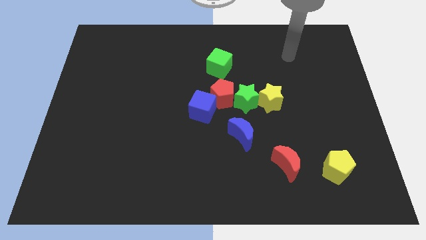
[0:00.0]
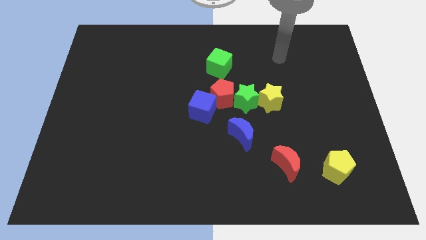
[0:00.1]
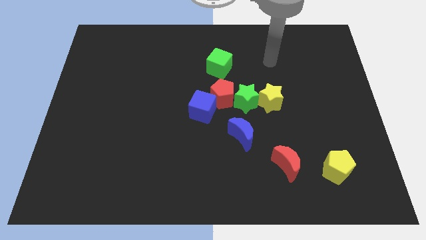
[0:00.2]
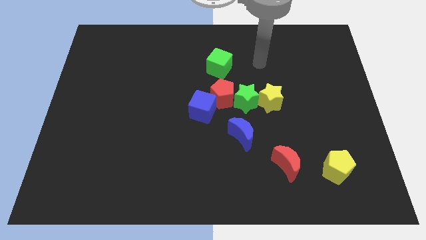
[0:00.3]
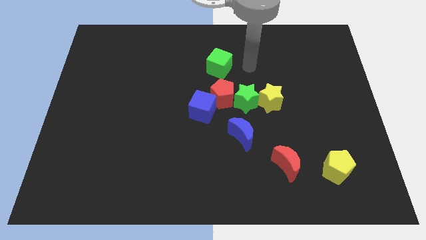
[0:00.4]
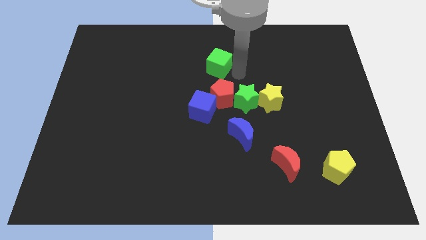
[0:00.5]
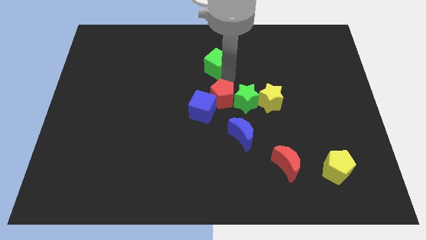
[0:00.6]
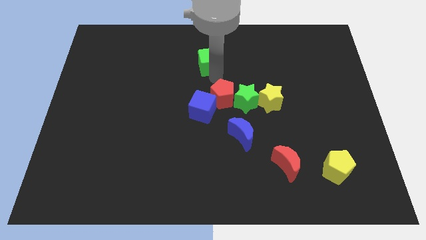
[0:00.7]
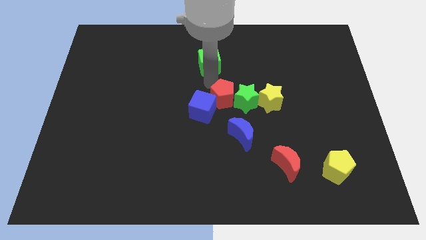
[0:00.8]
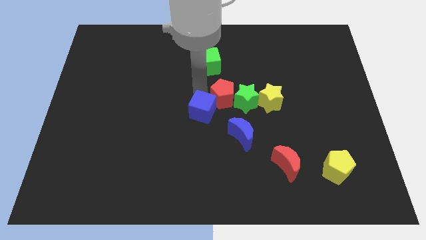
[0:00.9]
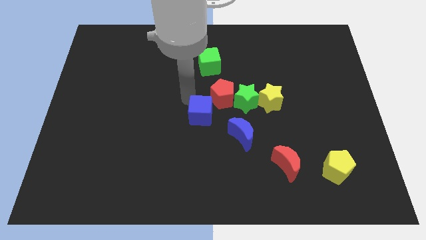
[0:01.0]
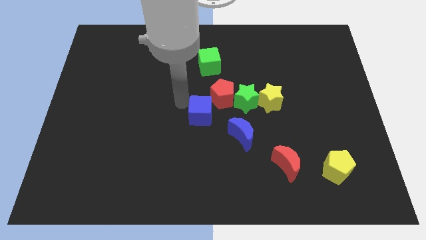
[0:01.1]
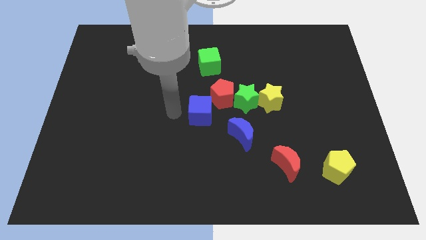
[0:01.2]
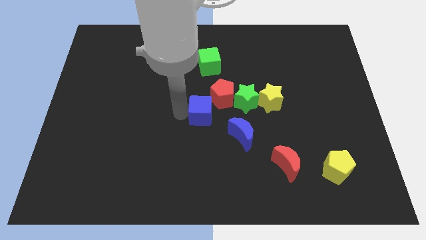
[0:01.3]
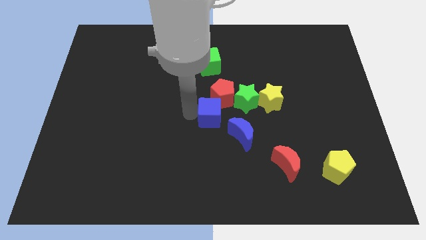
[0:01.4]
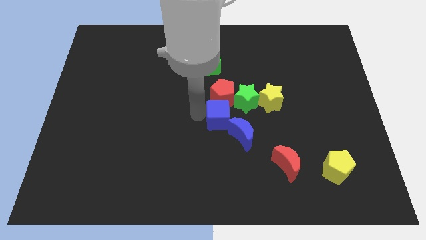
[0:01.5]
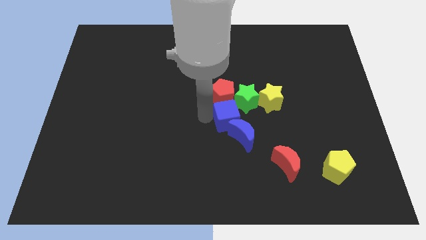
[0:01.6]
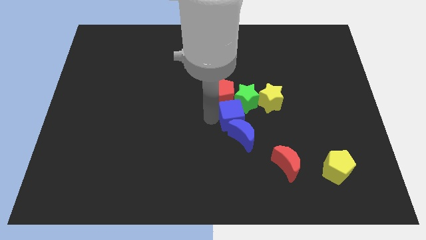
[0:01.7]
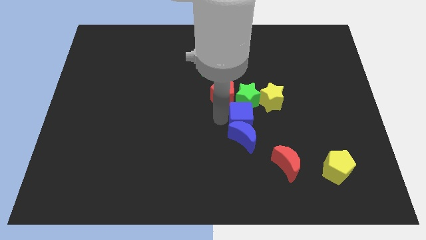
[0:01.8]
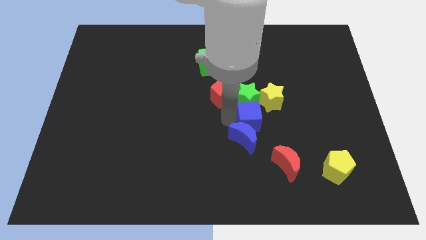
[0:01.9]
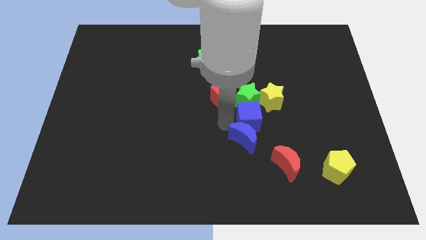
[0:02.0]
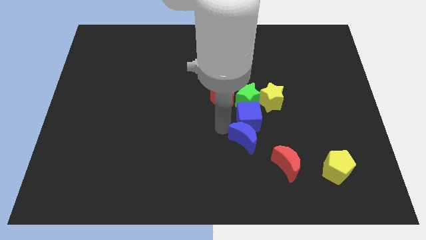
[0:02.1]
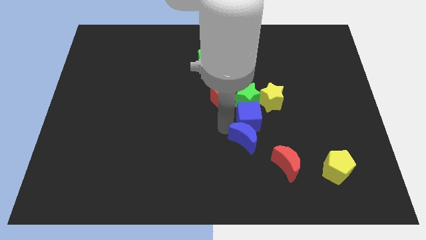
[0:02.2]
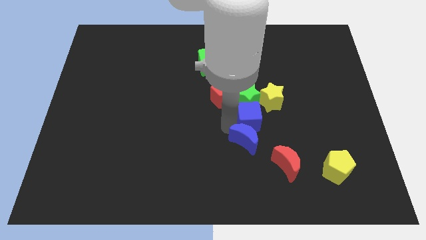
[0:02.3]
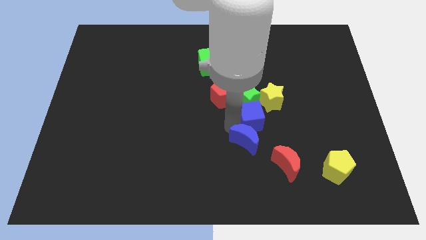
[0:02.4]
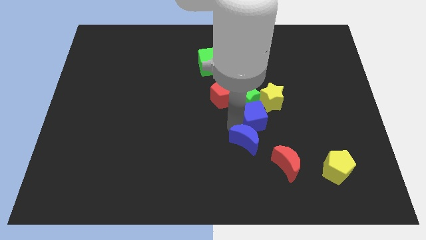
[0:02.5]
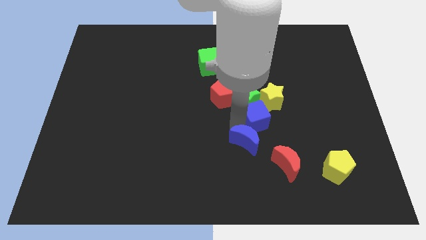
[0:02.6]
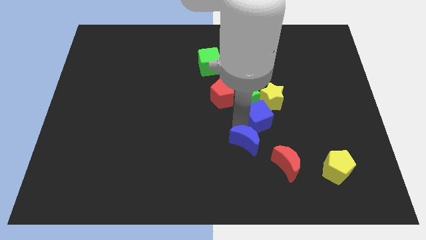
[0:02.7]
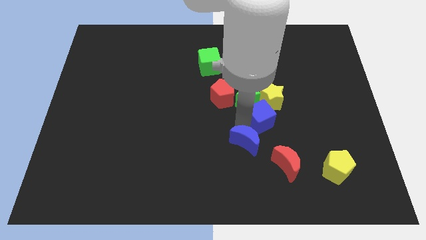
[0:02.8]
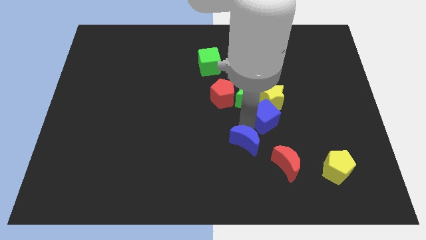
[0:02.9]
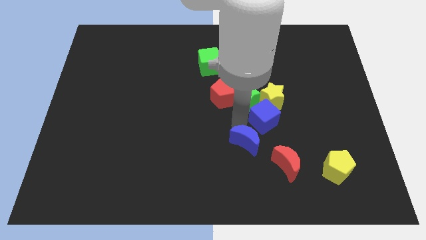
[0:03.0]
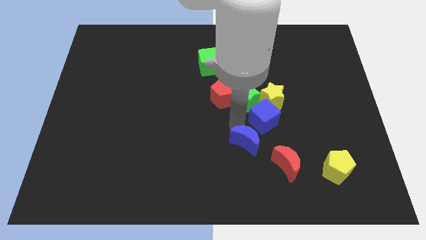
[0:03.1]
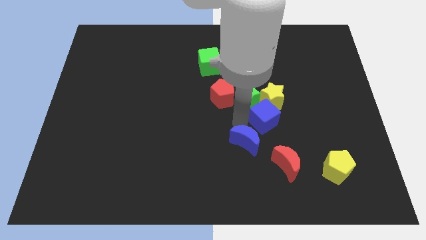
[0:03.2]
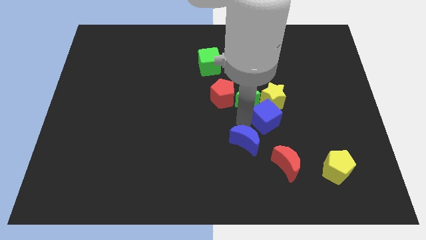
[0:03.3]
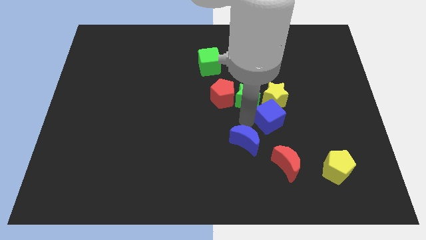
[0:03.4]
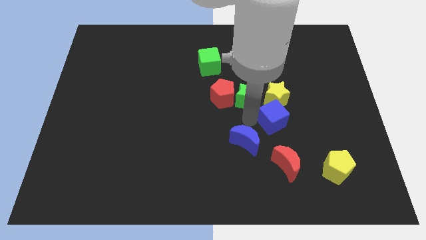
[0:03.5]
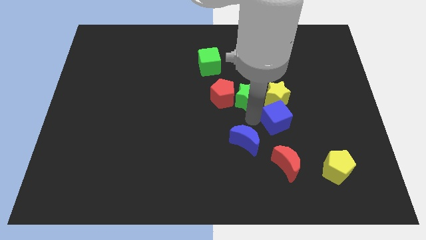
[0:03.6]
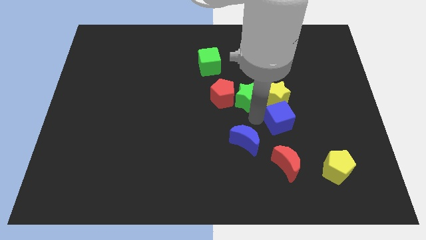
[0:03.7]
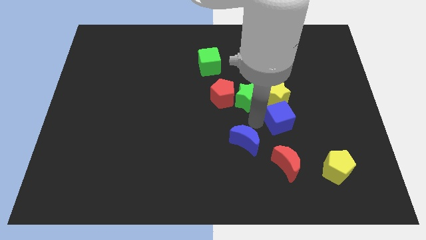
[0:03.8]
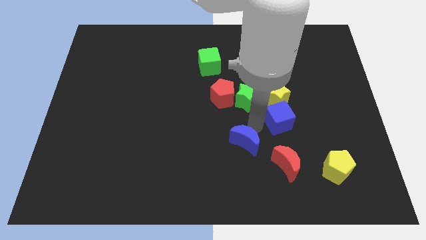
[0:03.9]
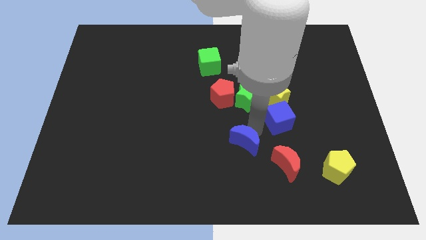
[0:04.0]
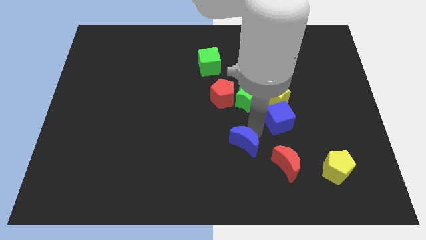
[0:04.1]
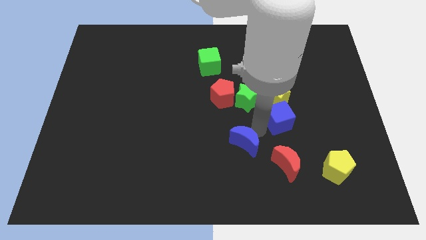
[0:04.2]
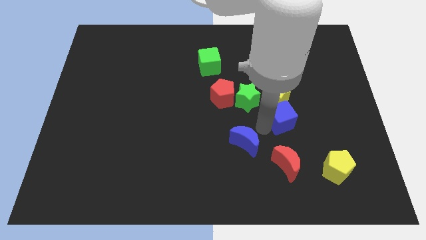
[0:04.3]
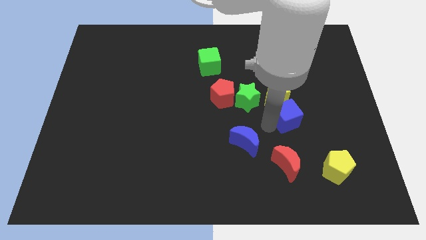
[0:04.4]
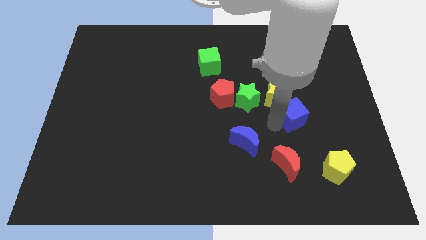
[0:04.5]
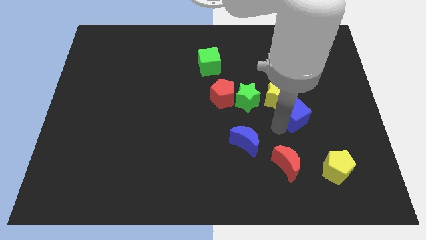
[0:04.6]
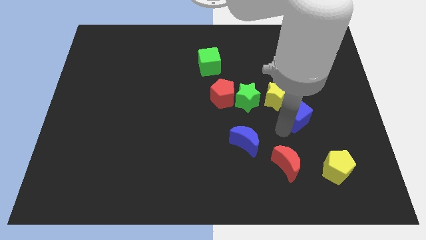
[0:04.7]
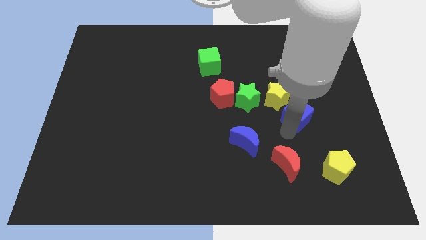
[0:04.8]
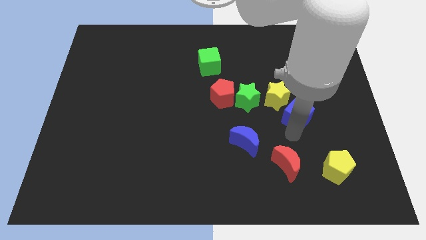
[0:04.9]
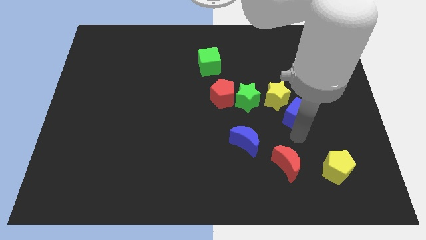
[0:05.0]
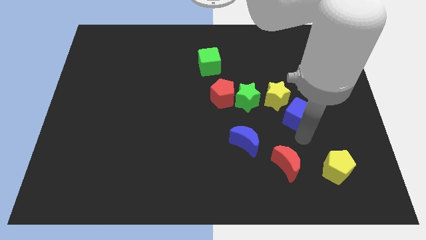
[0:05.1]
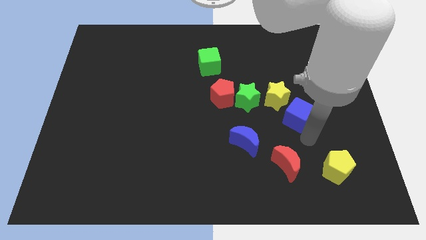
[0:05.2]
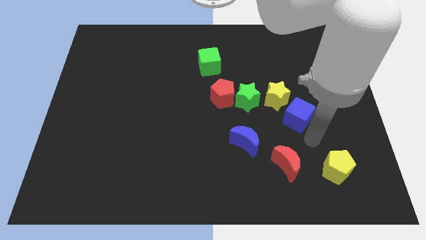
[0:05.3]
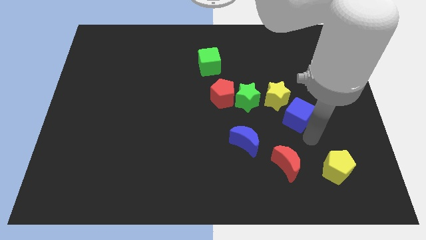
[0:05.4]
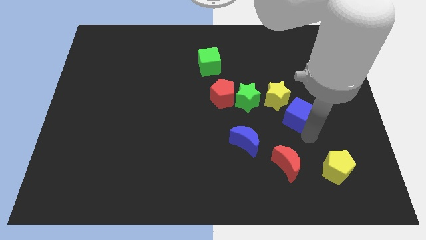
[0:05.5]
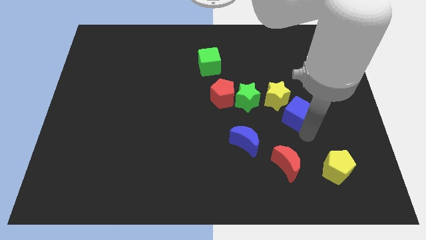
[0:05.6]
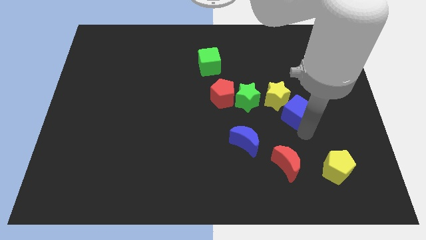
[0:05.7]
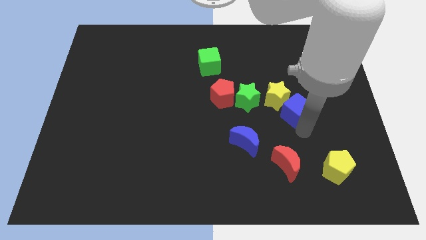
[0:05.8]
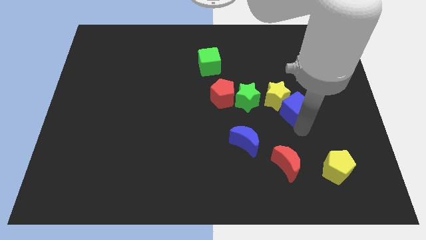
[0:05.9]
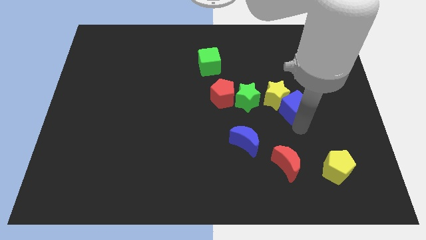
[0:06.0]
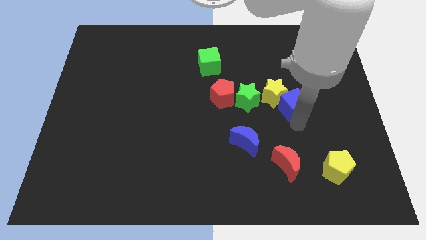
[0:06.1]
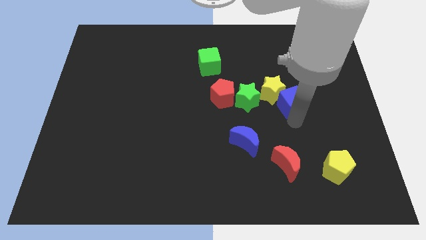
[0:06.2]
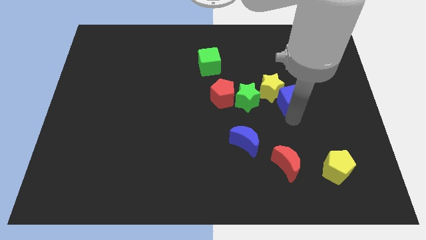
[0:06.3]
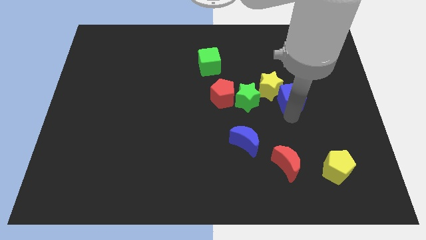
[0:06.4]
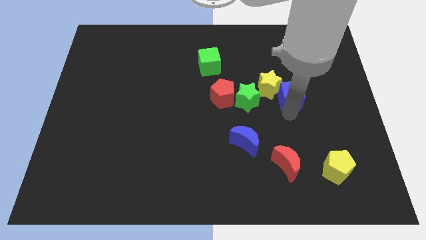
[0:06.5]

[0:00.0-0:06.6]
slide the blue cube a little diagonally upwards and right

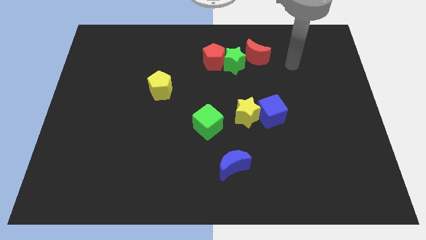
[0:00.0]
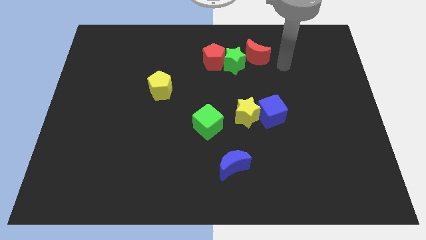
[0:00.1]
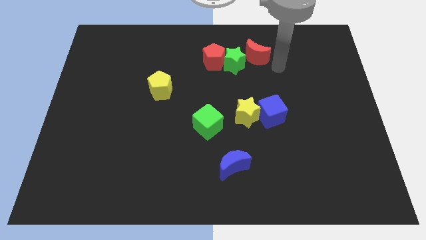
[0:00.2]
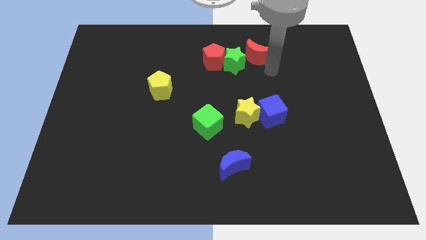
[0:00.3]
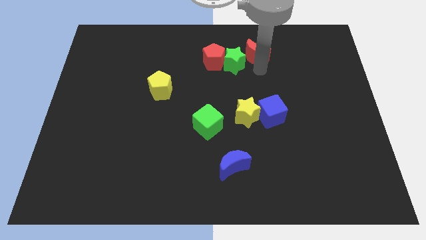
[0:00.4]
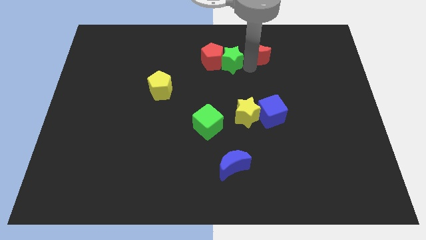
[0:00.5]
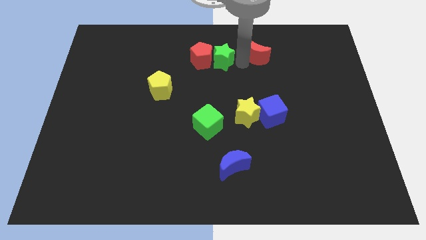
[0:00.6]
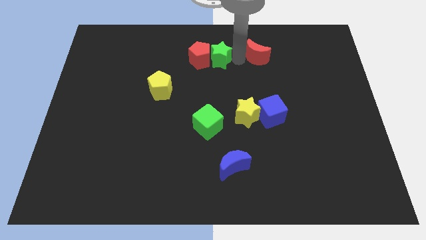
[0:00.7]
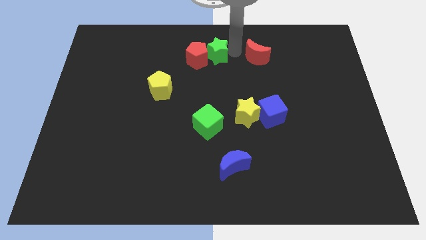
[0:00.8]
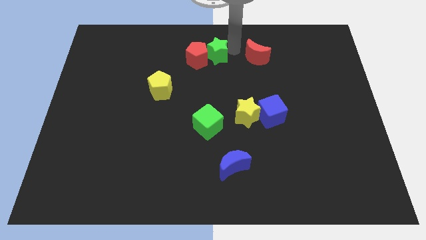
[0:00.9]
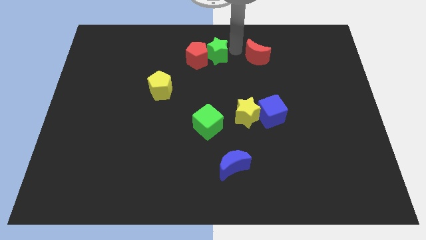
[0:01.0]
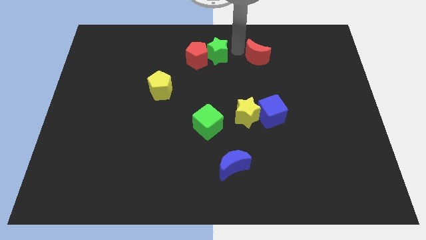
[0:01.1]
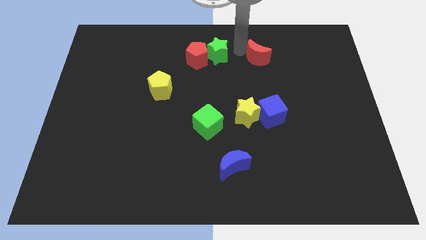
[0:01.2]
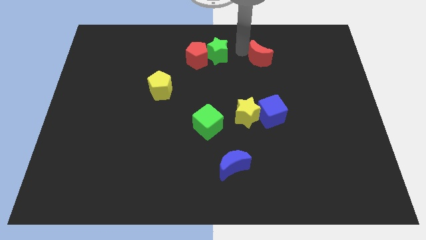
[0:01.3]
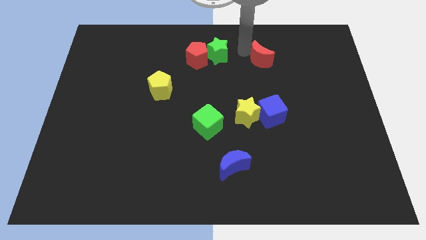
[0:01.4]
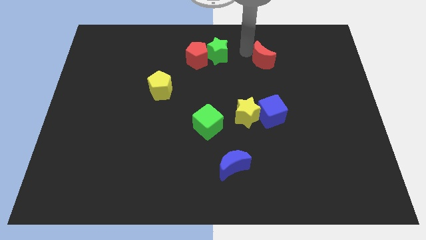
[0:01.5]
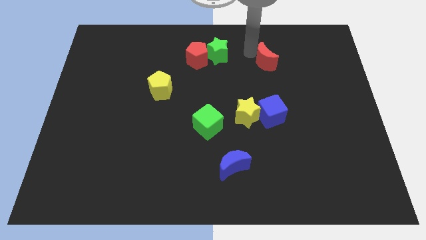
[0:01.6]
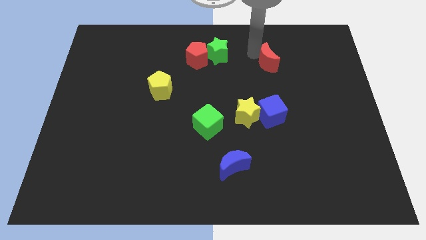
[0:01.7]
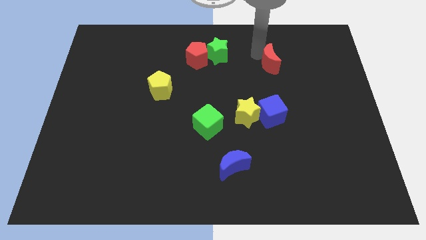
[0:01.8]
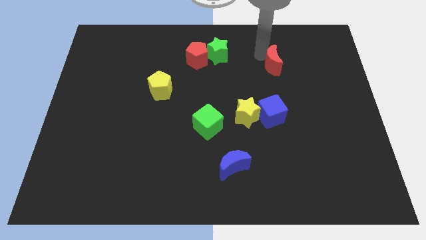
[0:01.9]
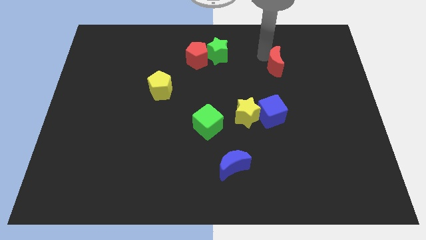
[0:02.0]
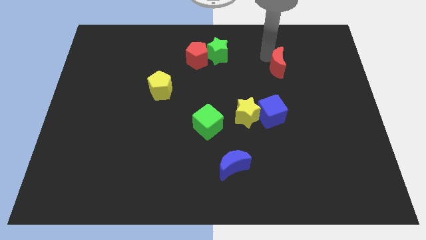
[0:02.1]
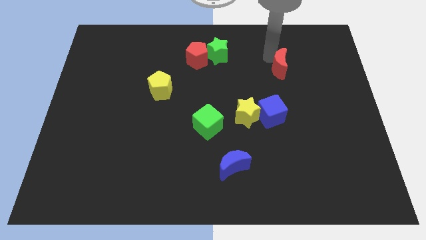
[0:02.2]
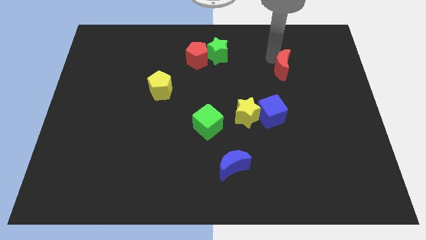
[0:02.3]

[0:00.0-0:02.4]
move the red moon a bit down and right
